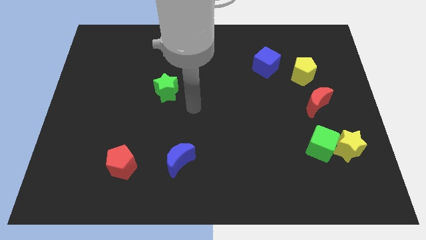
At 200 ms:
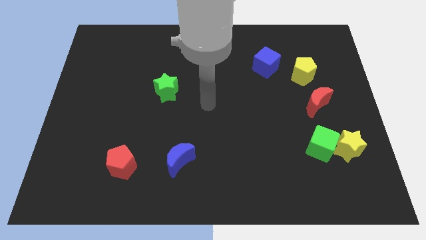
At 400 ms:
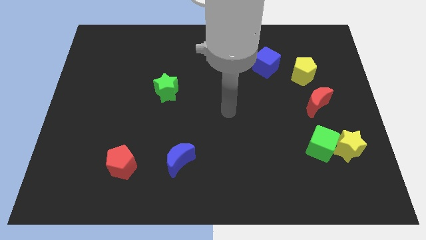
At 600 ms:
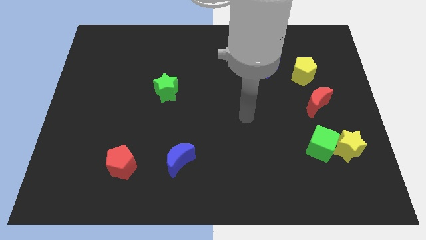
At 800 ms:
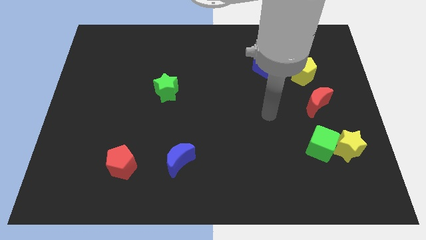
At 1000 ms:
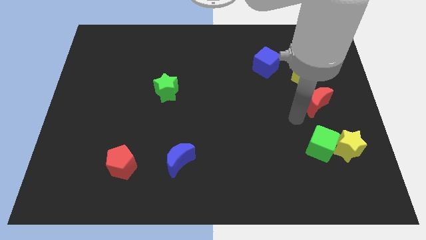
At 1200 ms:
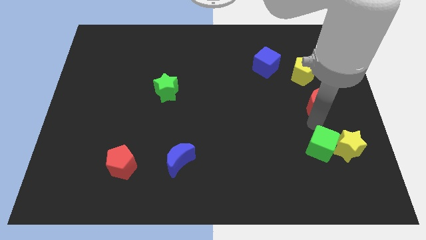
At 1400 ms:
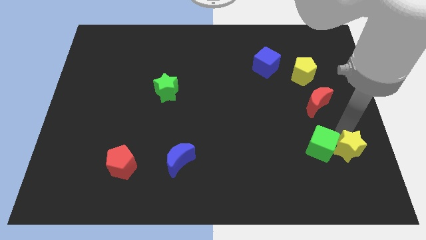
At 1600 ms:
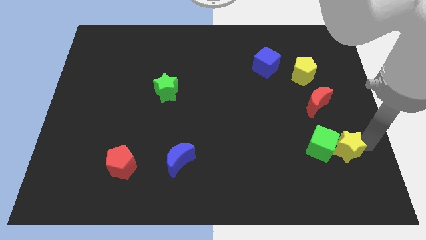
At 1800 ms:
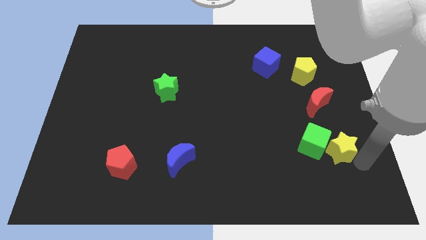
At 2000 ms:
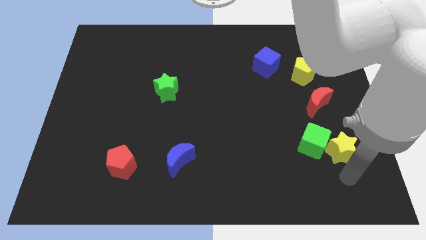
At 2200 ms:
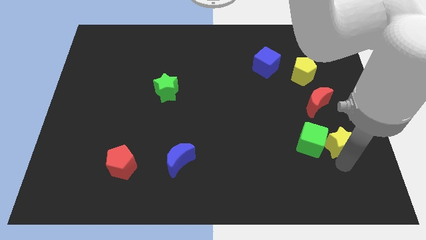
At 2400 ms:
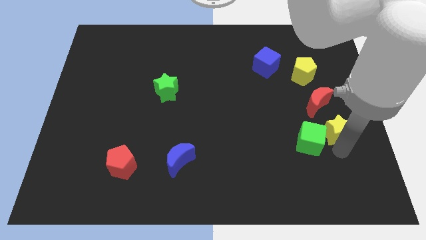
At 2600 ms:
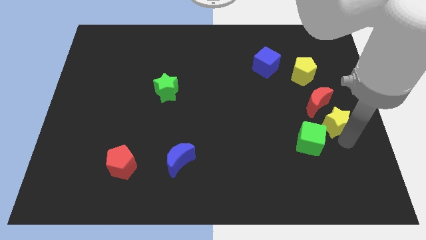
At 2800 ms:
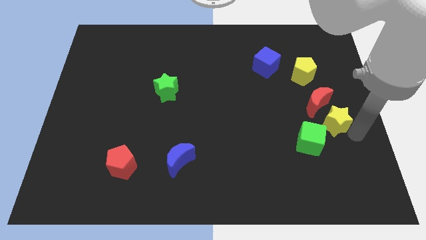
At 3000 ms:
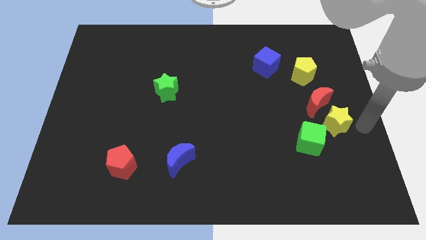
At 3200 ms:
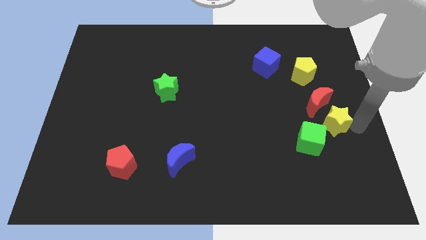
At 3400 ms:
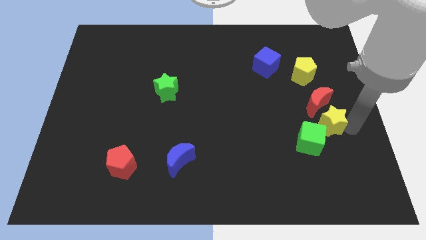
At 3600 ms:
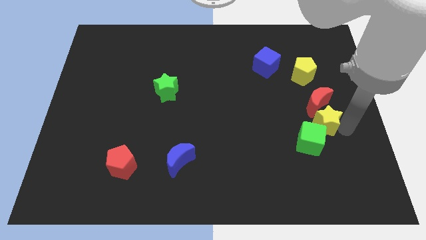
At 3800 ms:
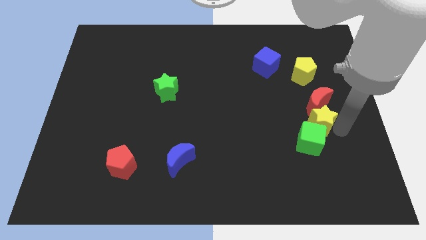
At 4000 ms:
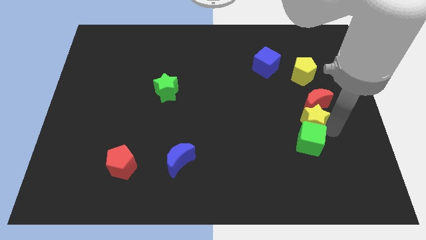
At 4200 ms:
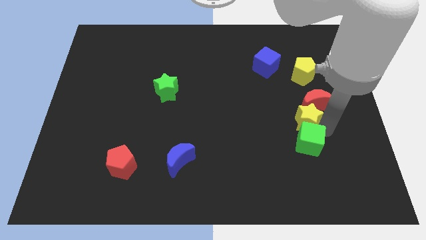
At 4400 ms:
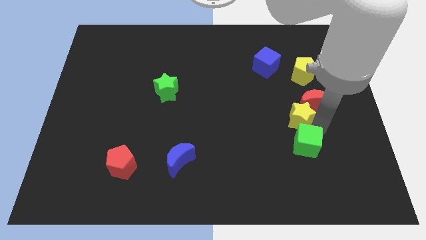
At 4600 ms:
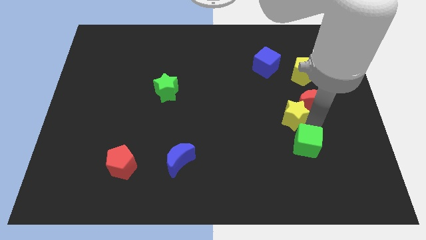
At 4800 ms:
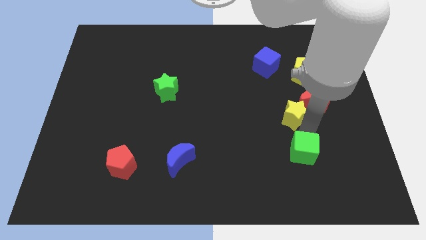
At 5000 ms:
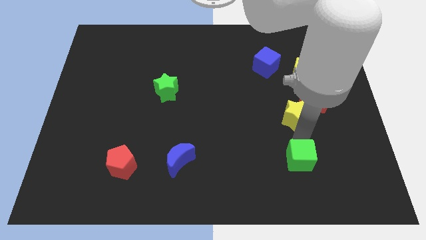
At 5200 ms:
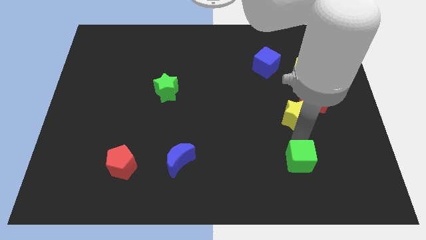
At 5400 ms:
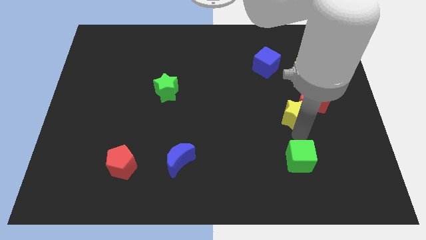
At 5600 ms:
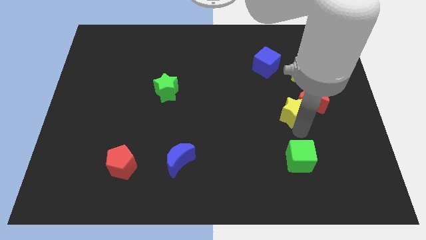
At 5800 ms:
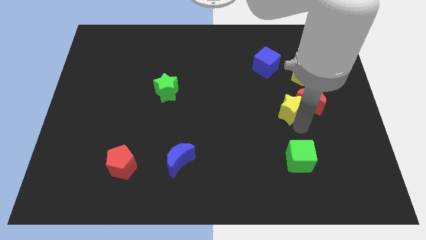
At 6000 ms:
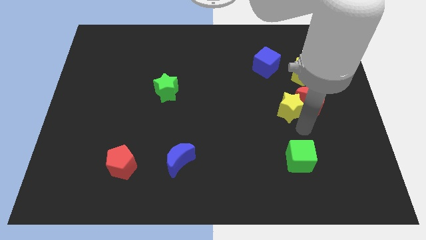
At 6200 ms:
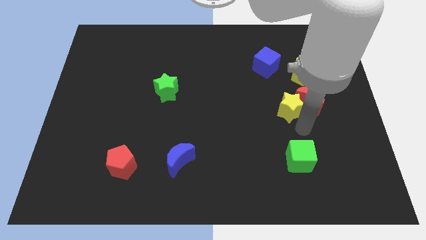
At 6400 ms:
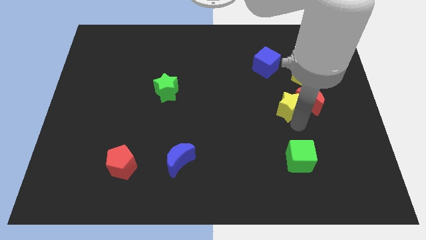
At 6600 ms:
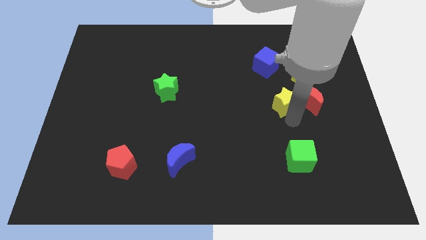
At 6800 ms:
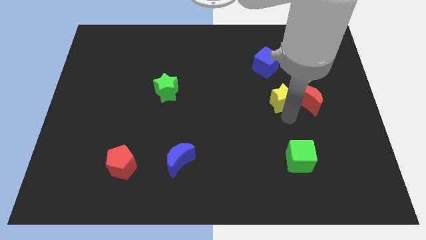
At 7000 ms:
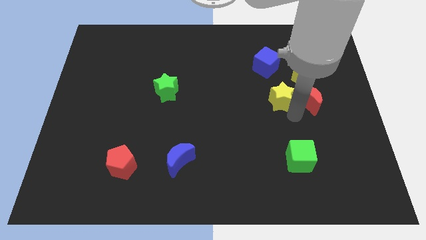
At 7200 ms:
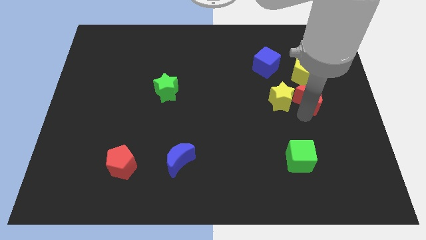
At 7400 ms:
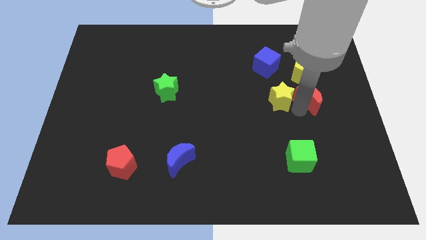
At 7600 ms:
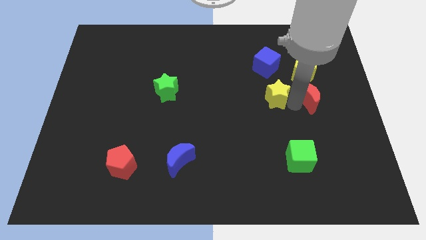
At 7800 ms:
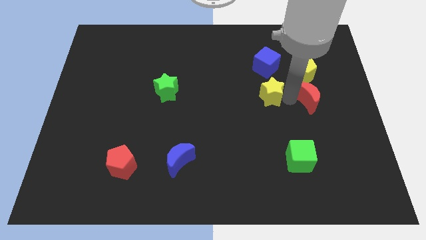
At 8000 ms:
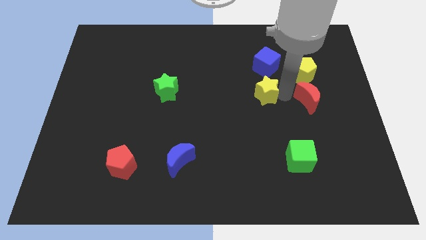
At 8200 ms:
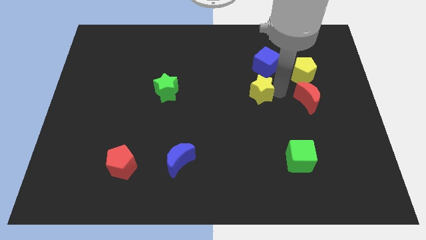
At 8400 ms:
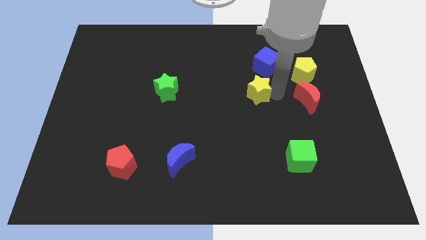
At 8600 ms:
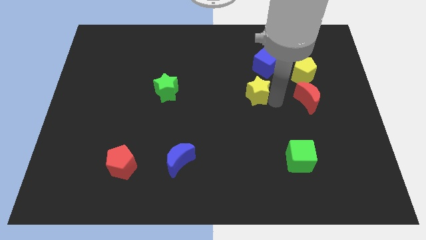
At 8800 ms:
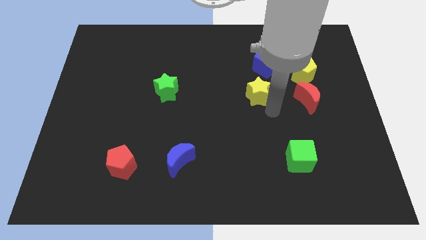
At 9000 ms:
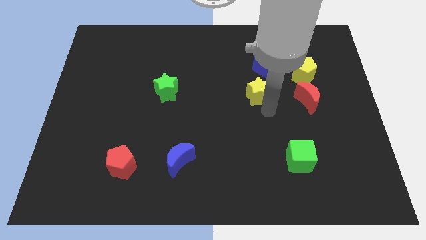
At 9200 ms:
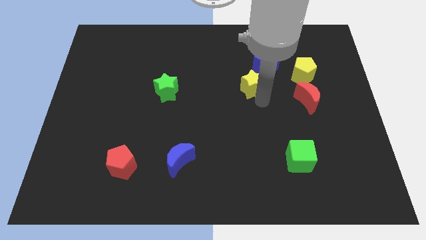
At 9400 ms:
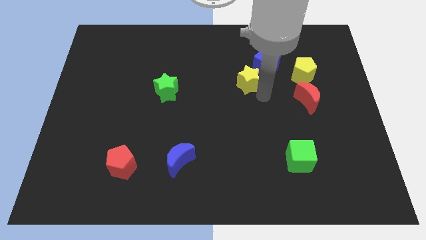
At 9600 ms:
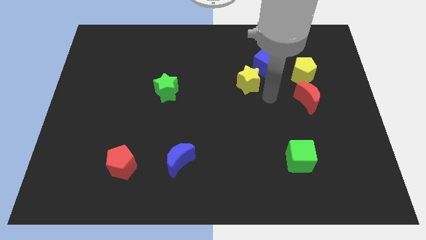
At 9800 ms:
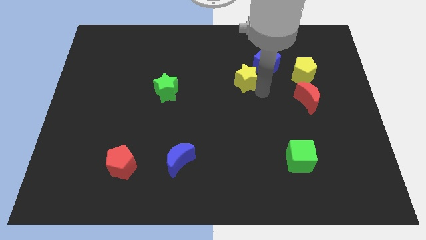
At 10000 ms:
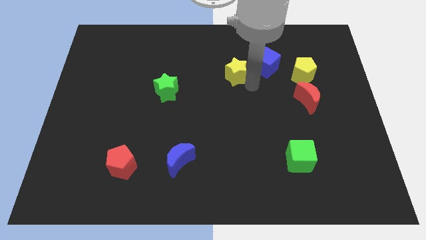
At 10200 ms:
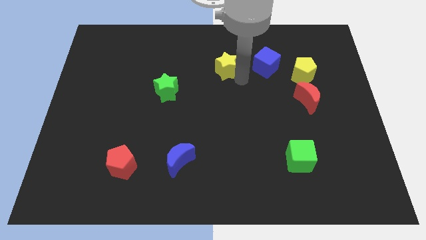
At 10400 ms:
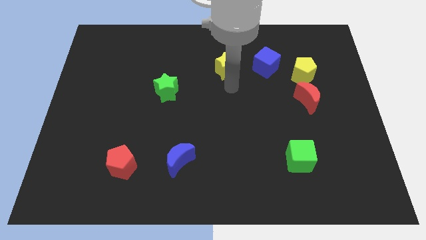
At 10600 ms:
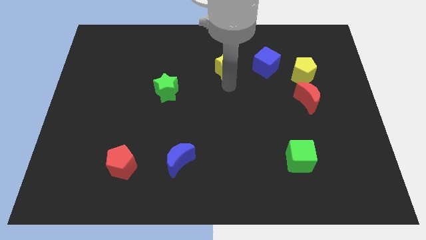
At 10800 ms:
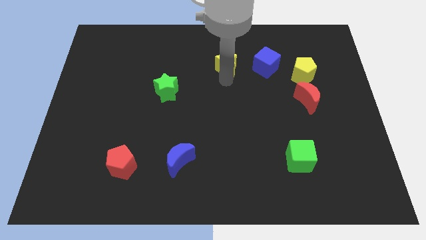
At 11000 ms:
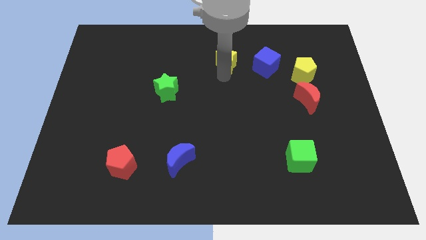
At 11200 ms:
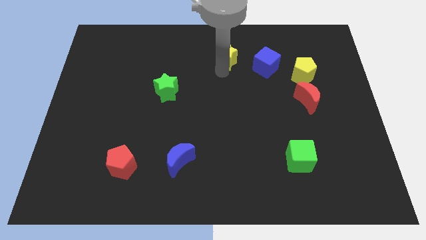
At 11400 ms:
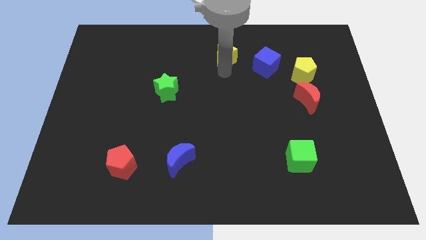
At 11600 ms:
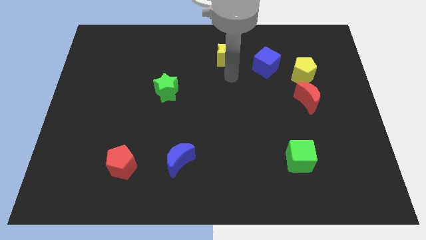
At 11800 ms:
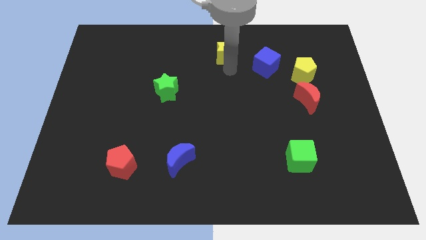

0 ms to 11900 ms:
slide the yellow star to the top side
